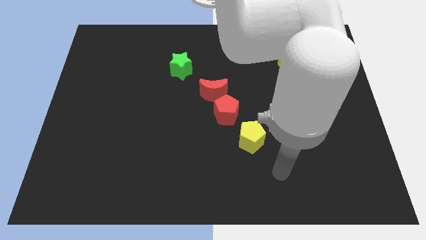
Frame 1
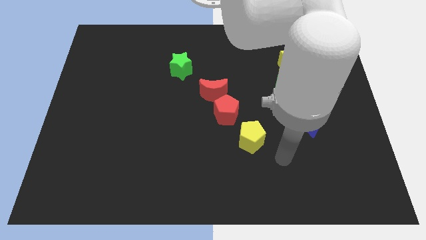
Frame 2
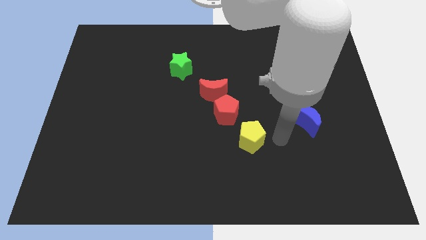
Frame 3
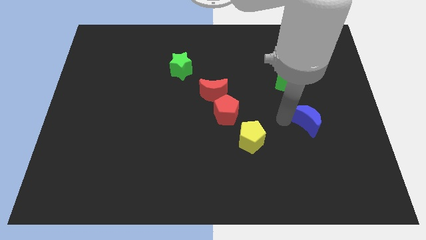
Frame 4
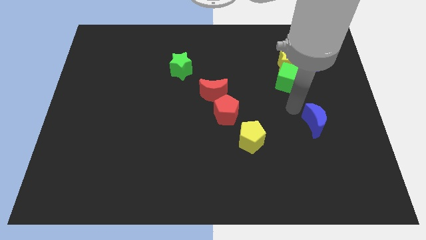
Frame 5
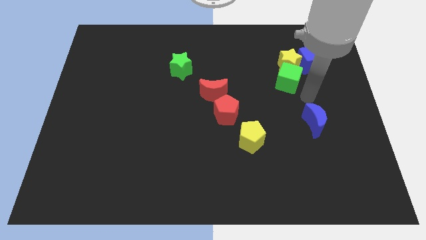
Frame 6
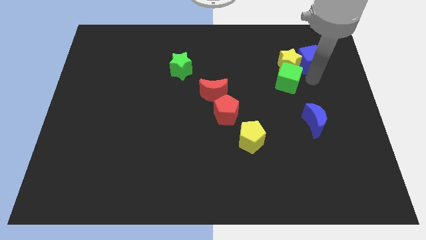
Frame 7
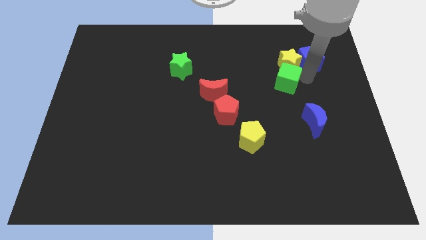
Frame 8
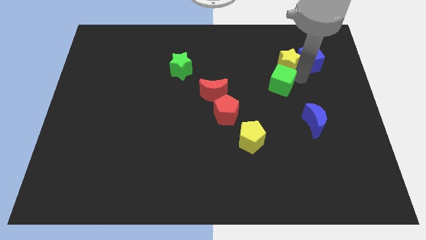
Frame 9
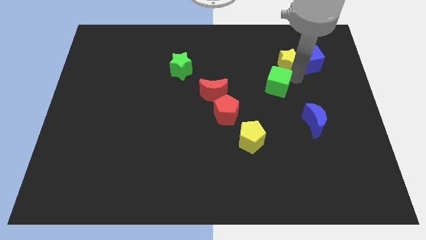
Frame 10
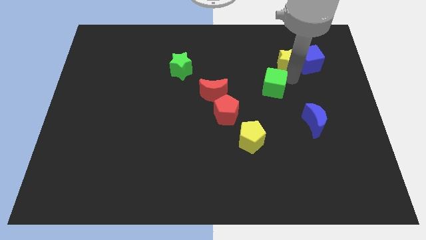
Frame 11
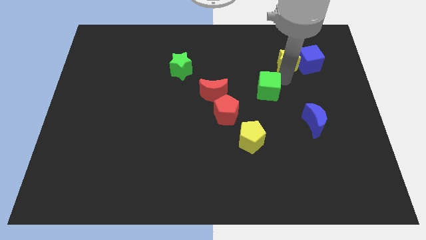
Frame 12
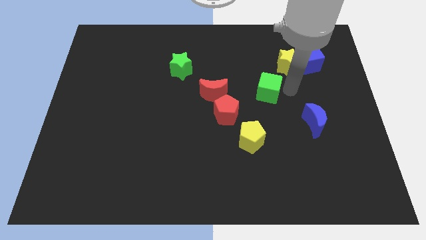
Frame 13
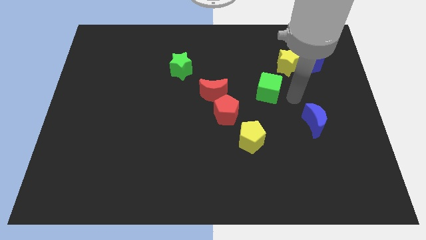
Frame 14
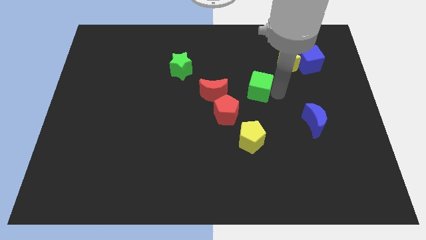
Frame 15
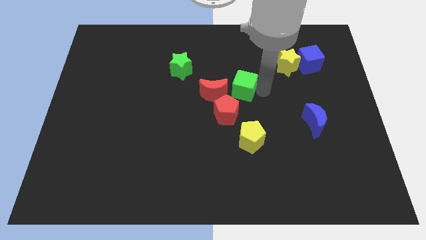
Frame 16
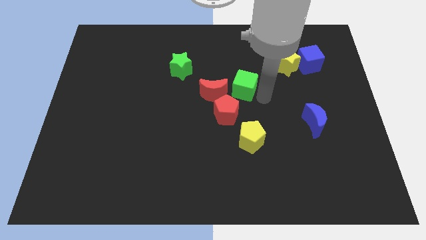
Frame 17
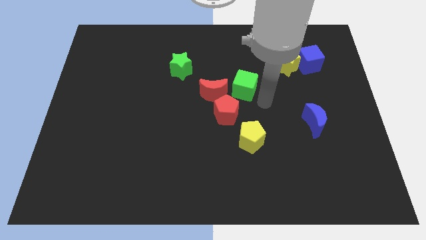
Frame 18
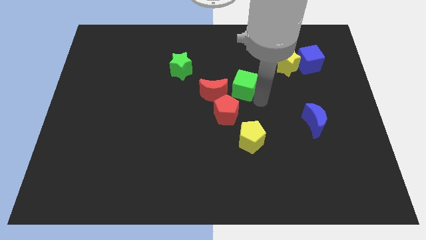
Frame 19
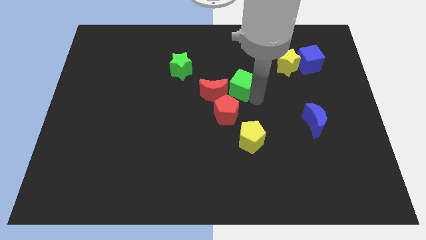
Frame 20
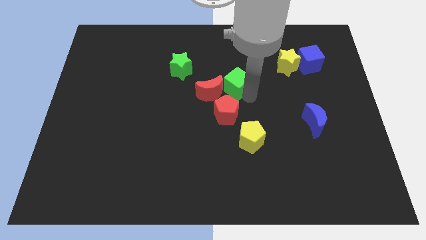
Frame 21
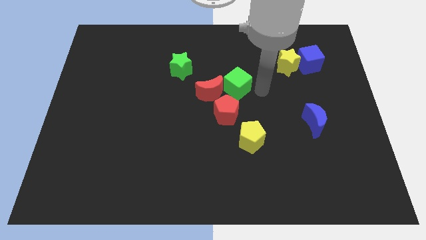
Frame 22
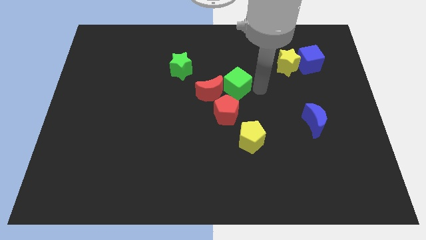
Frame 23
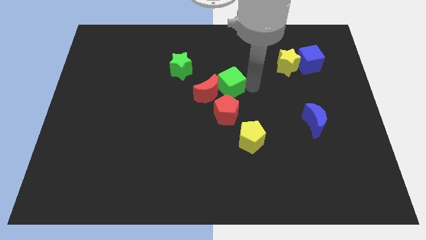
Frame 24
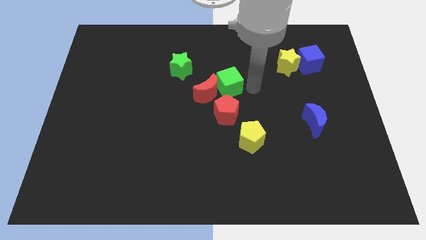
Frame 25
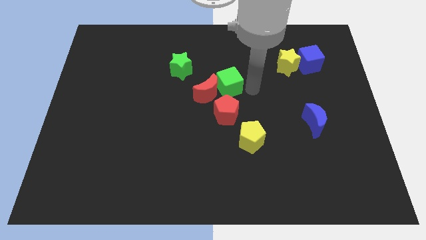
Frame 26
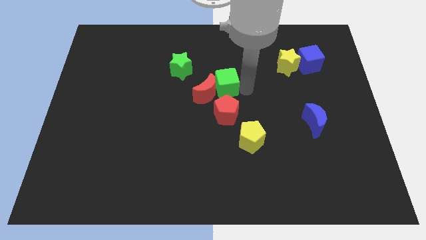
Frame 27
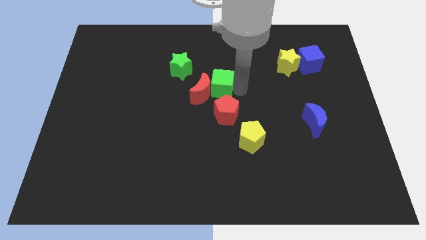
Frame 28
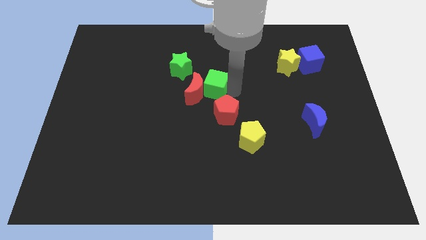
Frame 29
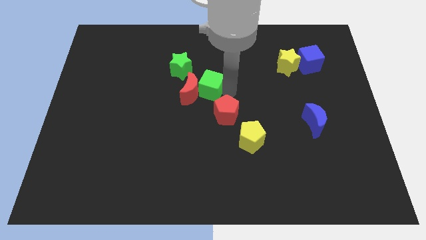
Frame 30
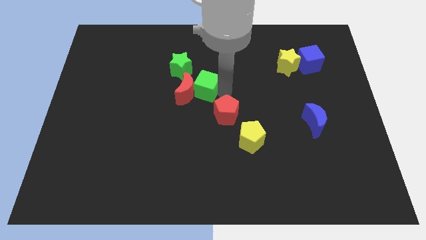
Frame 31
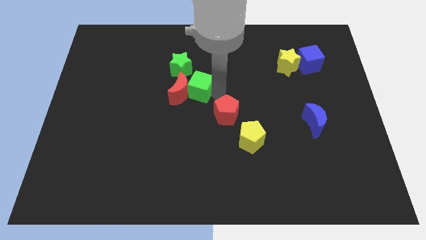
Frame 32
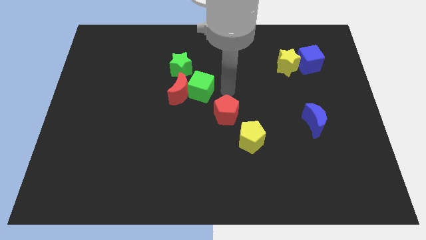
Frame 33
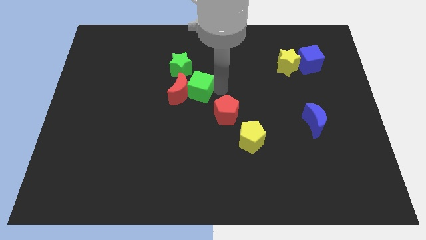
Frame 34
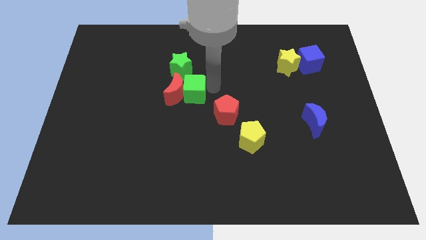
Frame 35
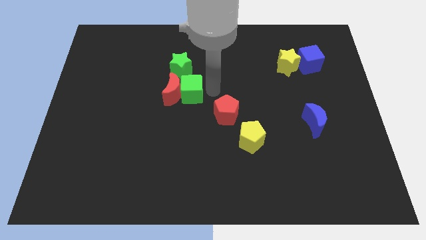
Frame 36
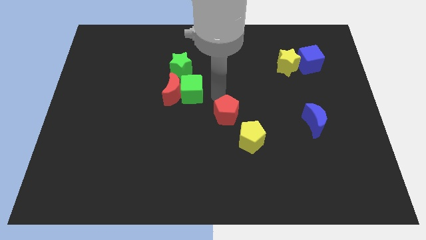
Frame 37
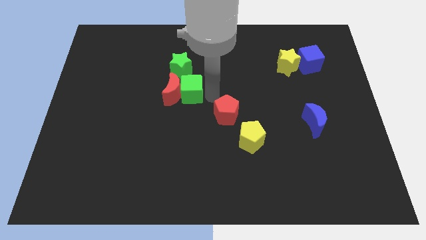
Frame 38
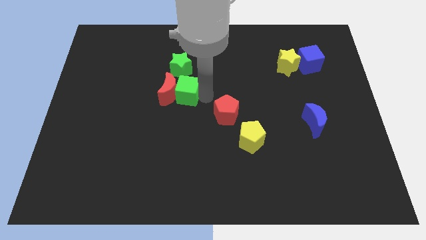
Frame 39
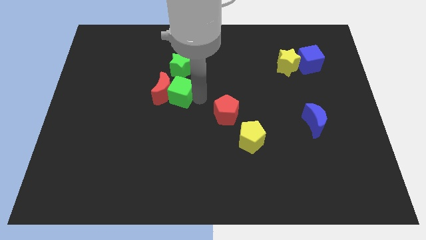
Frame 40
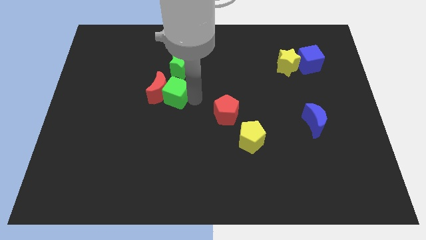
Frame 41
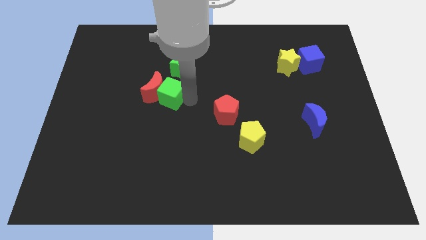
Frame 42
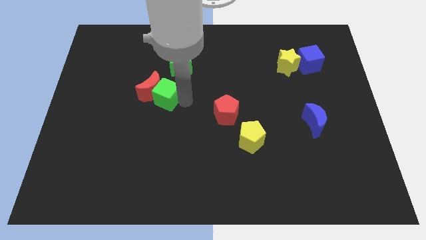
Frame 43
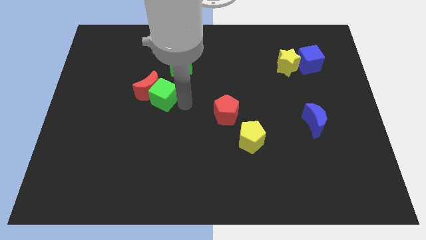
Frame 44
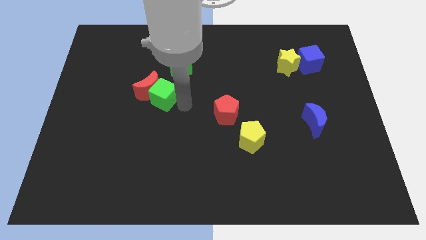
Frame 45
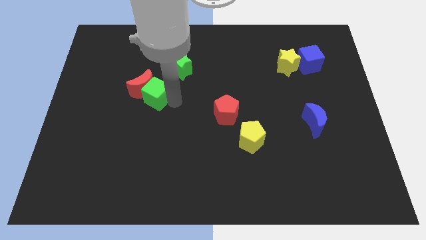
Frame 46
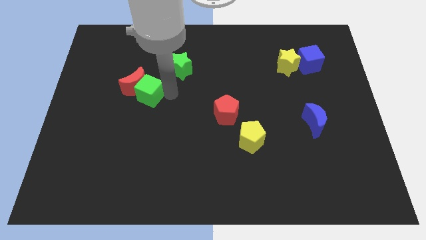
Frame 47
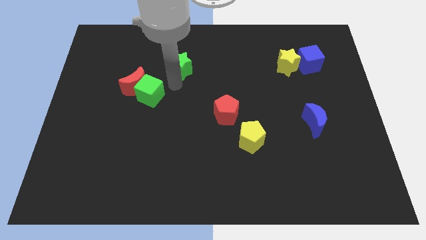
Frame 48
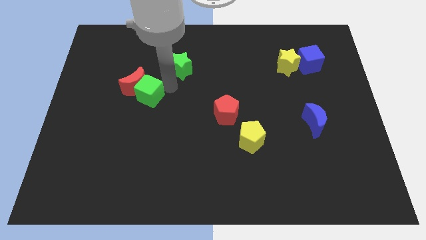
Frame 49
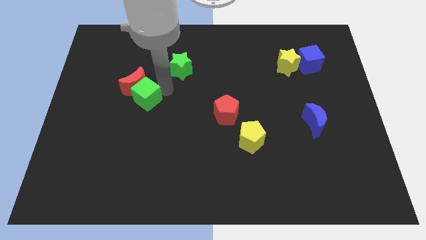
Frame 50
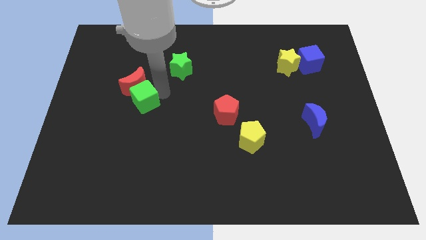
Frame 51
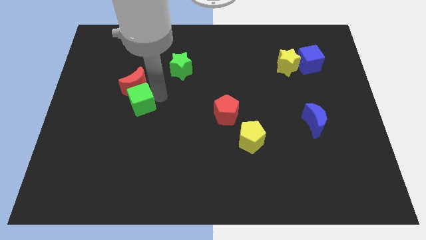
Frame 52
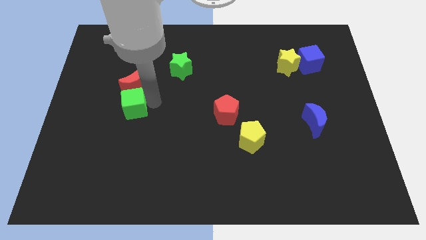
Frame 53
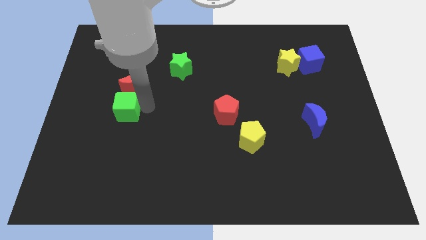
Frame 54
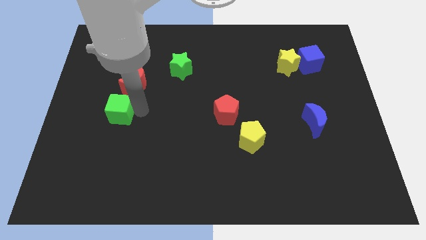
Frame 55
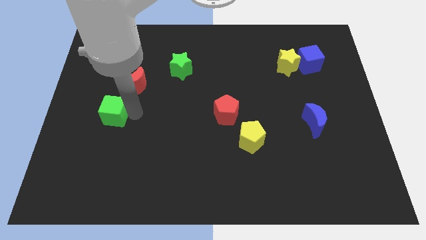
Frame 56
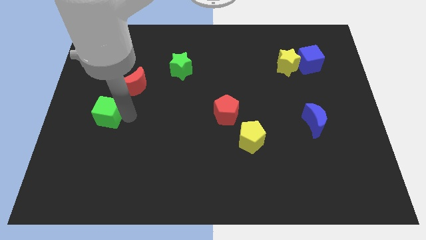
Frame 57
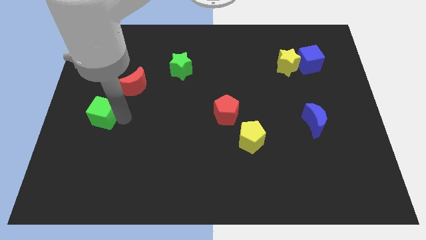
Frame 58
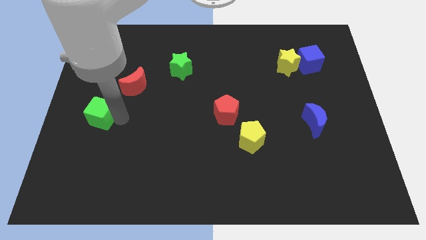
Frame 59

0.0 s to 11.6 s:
put the green cube to the left side

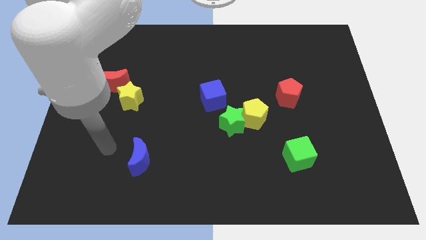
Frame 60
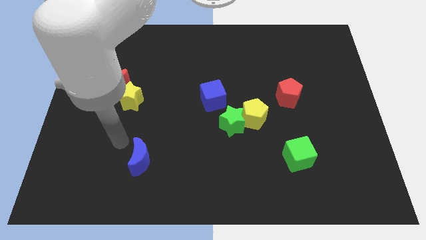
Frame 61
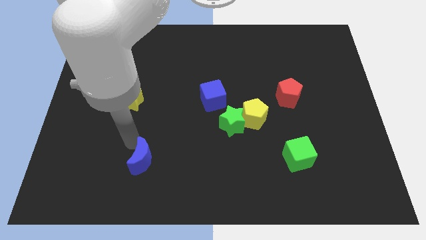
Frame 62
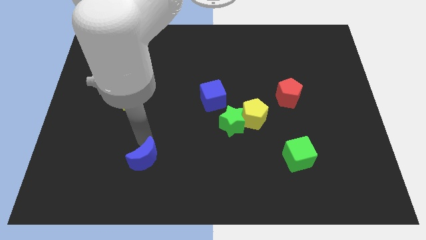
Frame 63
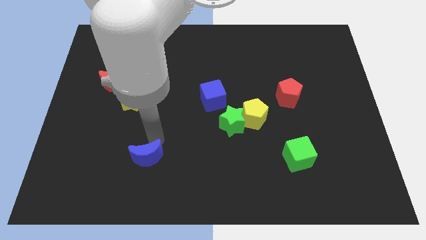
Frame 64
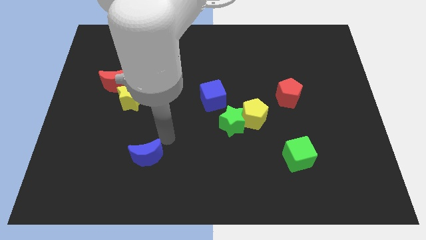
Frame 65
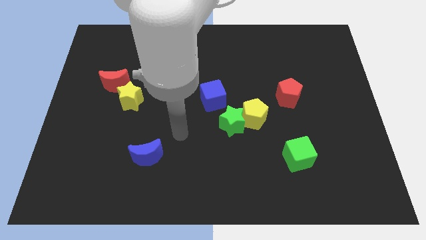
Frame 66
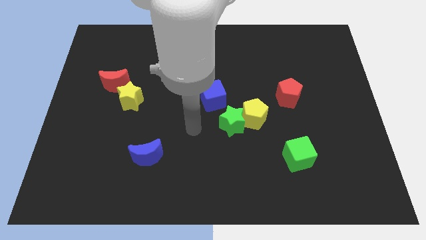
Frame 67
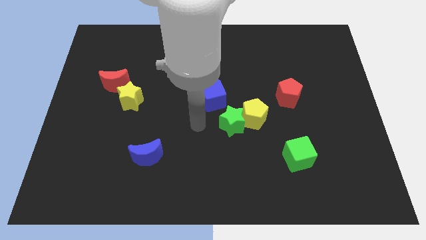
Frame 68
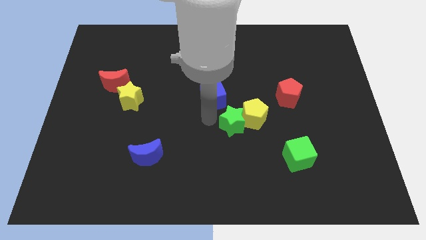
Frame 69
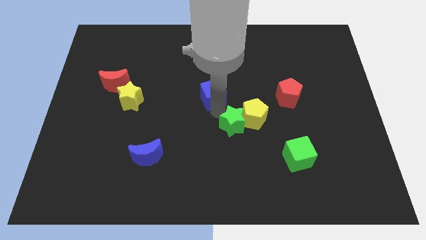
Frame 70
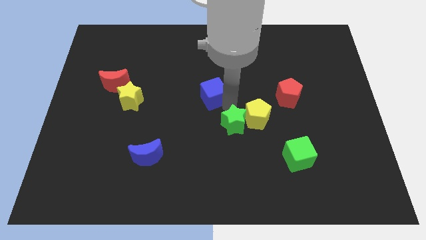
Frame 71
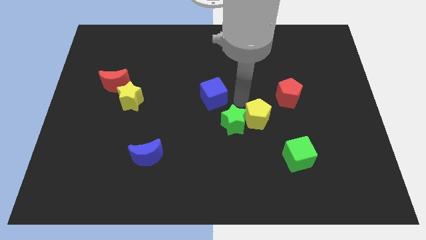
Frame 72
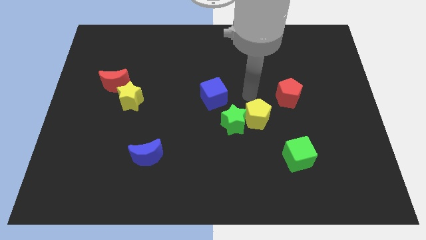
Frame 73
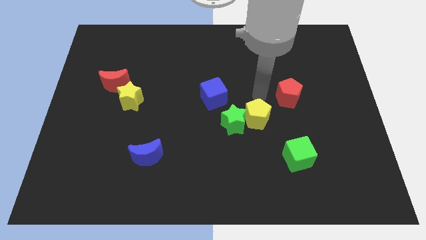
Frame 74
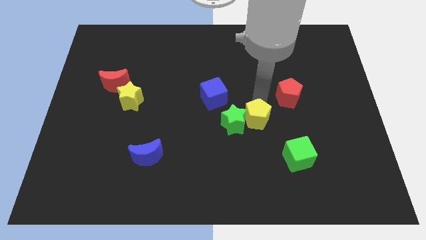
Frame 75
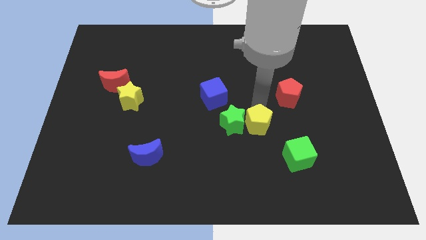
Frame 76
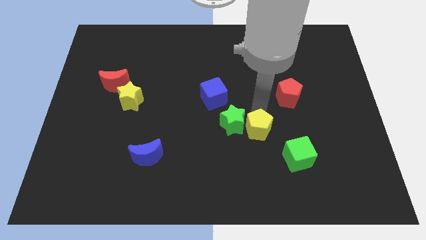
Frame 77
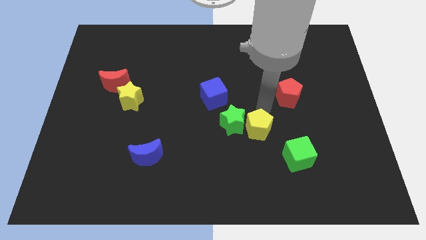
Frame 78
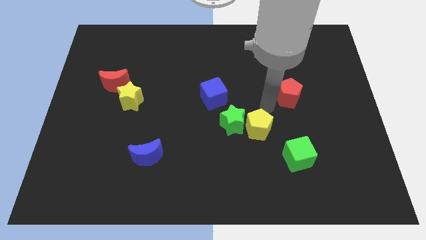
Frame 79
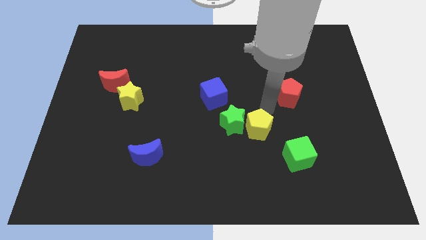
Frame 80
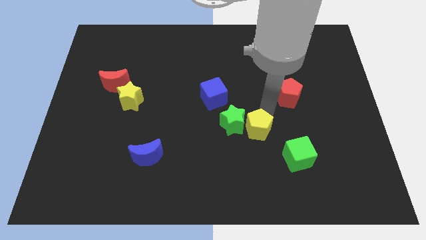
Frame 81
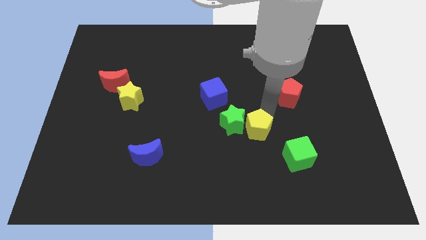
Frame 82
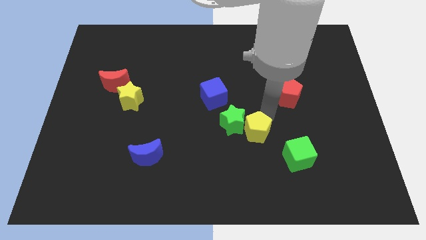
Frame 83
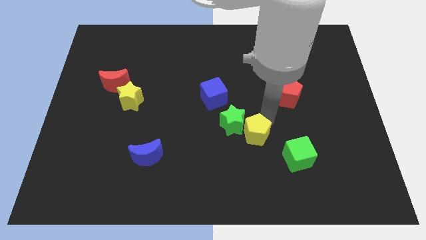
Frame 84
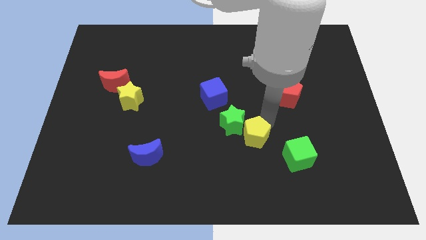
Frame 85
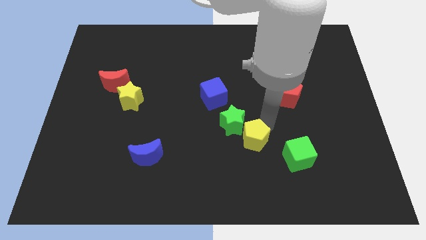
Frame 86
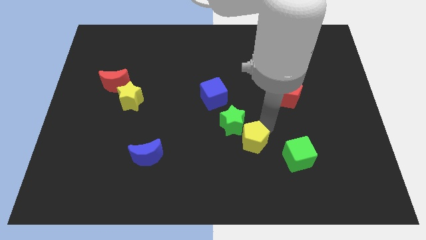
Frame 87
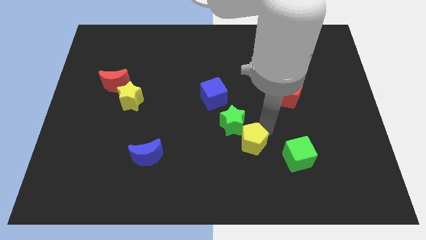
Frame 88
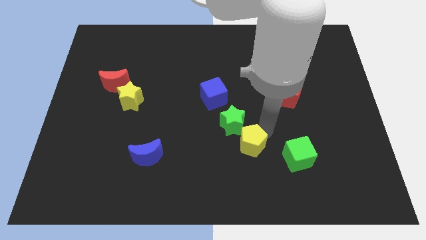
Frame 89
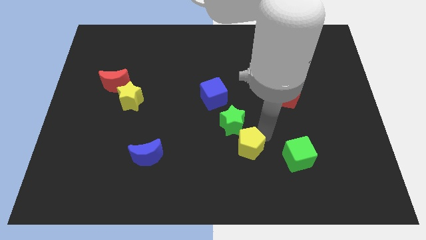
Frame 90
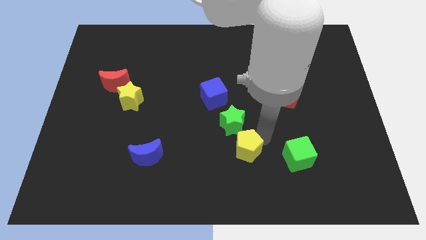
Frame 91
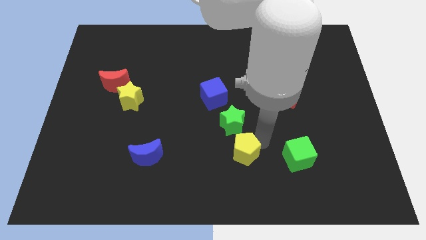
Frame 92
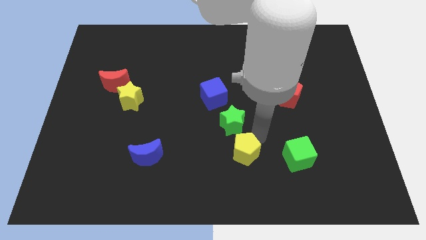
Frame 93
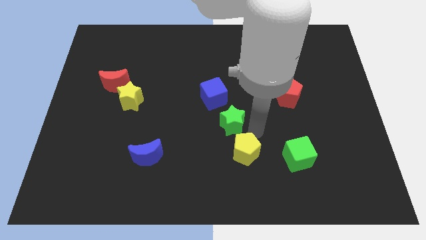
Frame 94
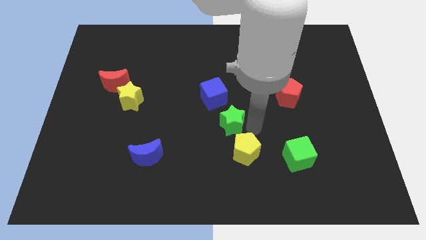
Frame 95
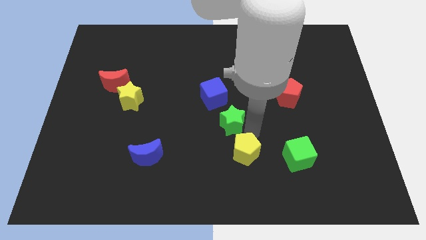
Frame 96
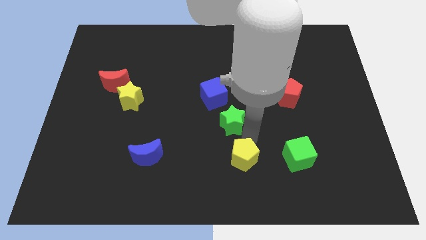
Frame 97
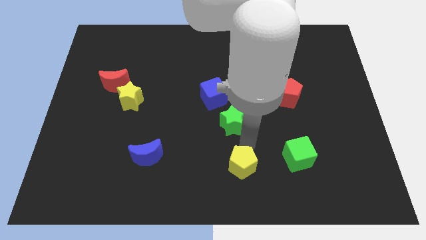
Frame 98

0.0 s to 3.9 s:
push the yellow pentagon to the bottom side
